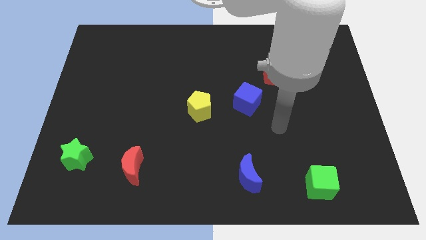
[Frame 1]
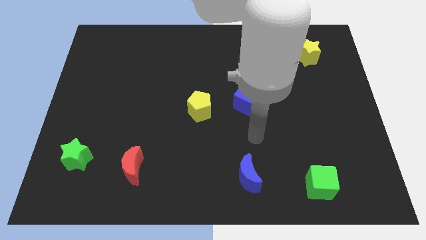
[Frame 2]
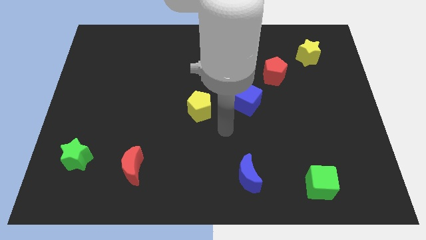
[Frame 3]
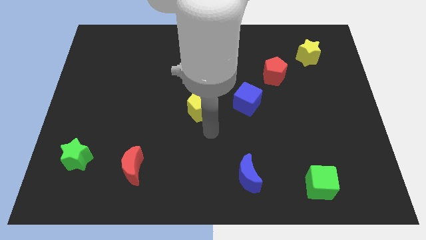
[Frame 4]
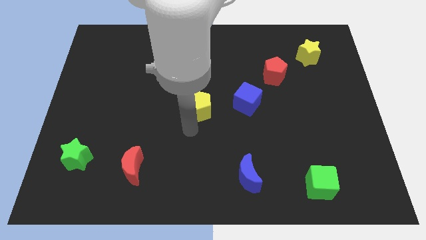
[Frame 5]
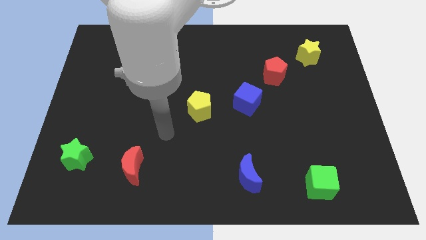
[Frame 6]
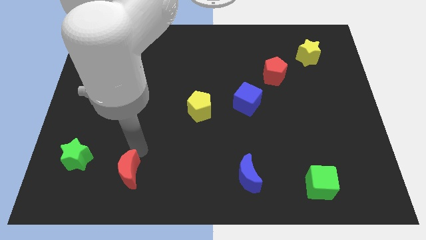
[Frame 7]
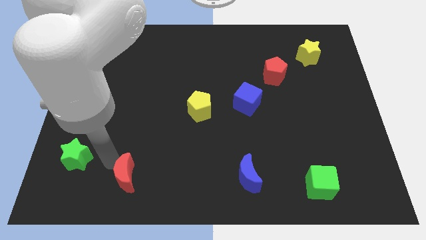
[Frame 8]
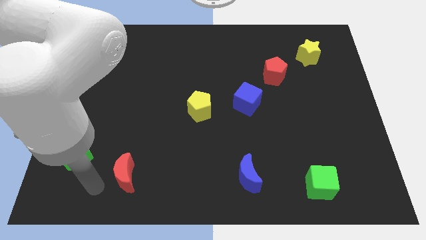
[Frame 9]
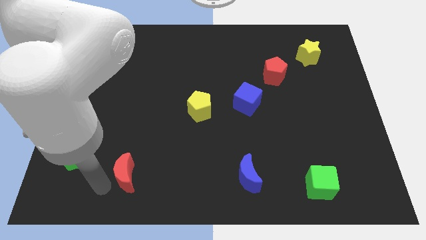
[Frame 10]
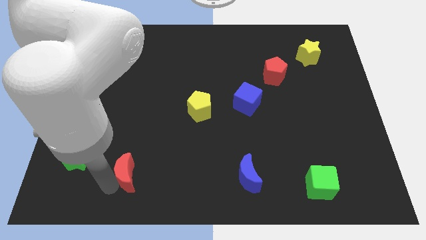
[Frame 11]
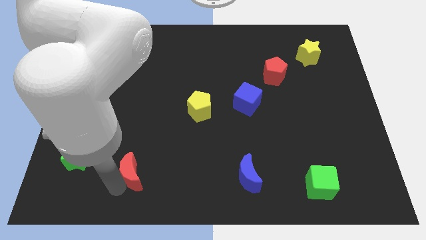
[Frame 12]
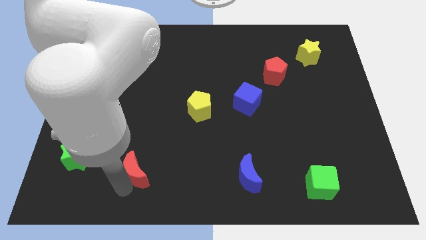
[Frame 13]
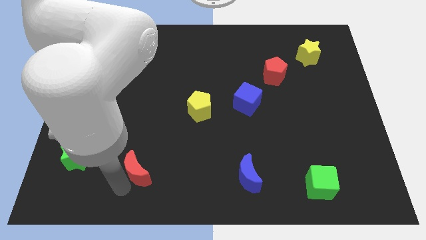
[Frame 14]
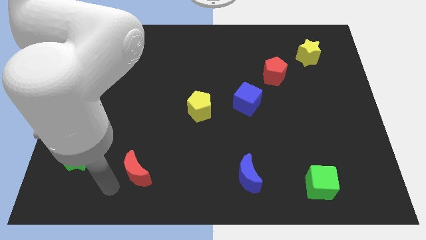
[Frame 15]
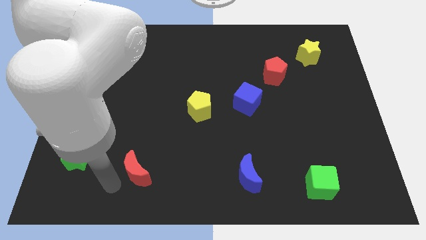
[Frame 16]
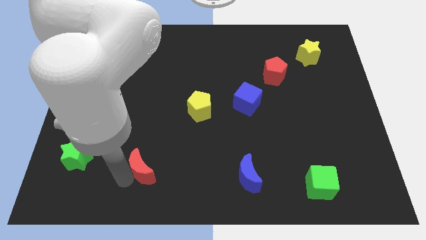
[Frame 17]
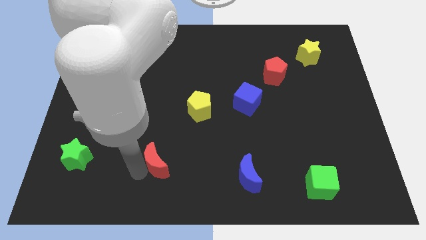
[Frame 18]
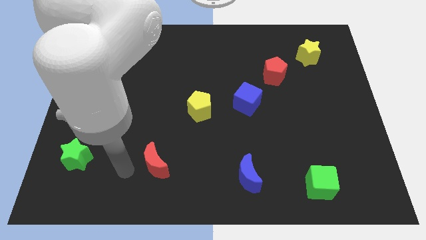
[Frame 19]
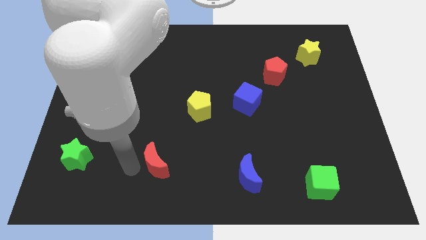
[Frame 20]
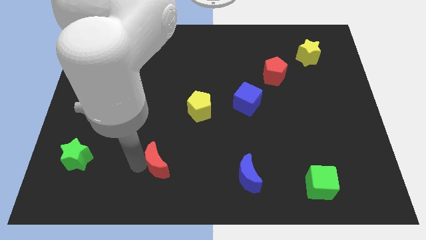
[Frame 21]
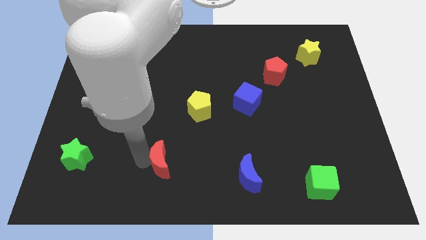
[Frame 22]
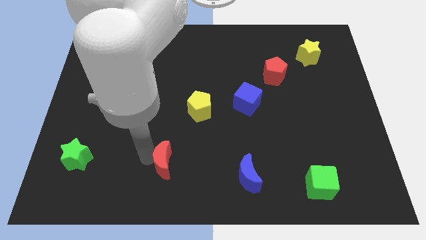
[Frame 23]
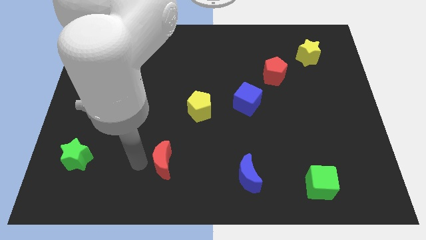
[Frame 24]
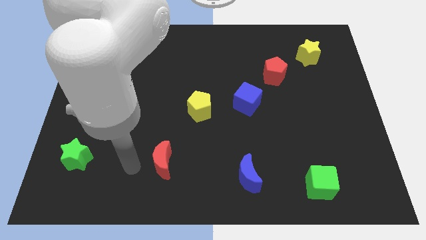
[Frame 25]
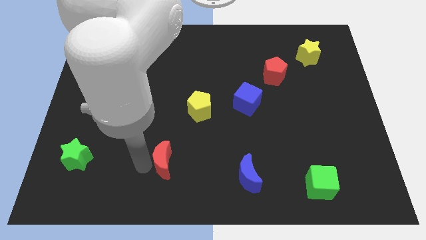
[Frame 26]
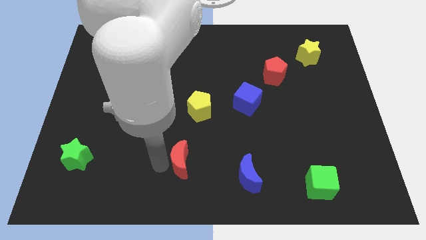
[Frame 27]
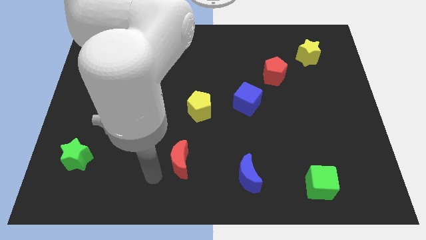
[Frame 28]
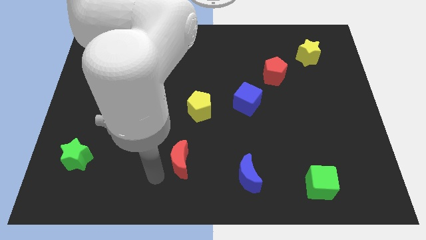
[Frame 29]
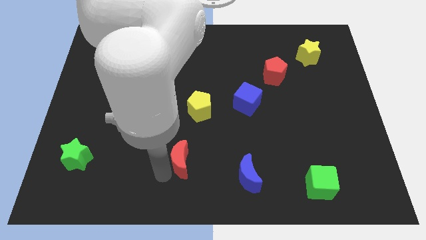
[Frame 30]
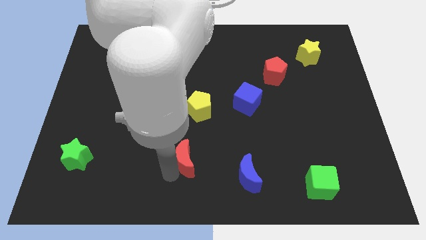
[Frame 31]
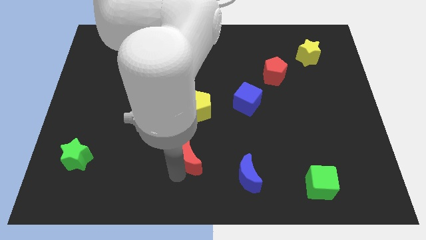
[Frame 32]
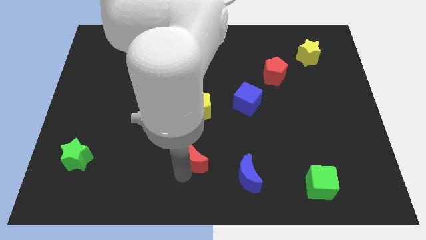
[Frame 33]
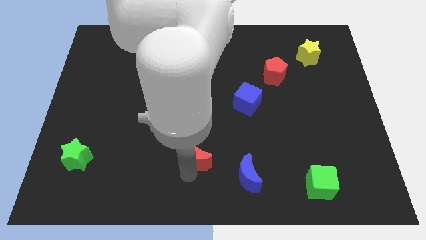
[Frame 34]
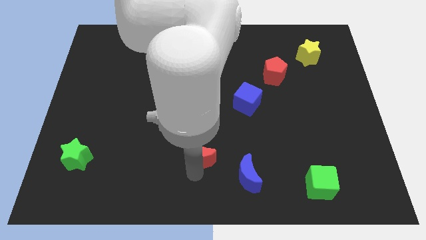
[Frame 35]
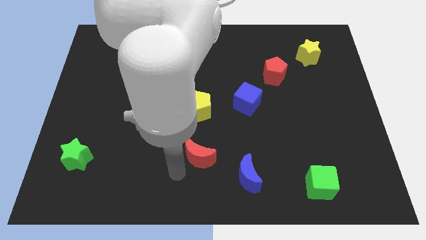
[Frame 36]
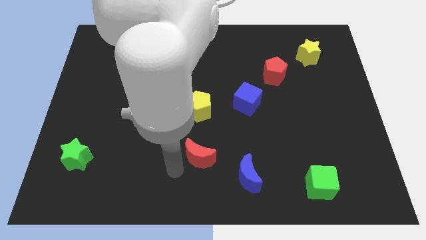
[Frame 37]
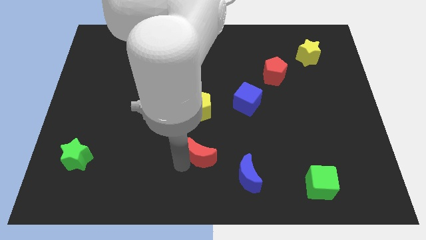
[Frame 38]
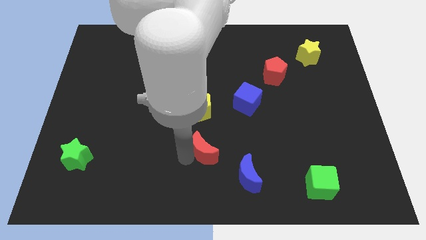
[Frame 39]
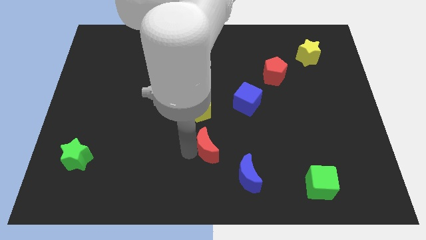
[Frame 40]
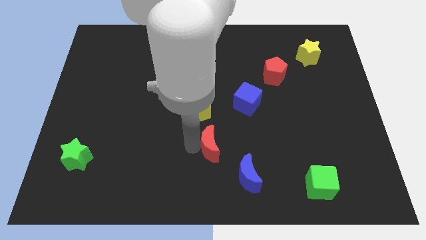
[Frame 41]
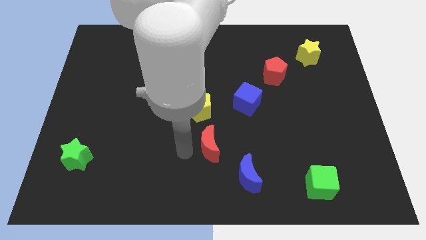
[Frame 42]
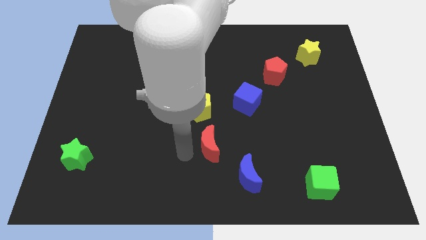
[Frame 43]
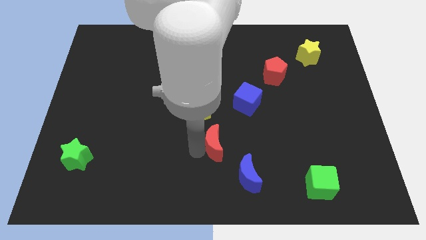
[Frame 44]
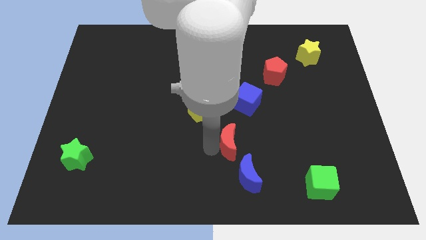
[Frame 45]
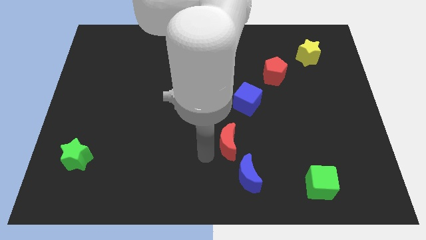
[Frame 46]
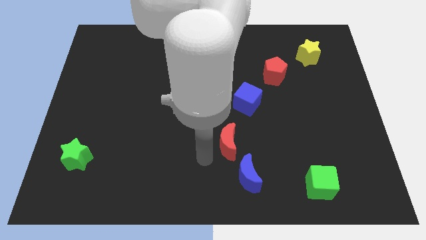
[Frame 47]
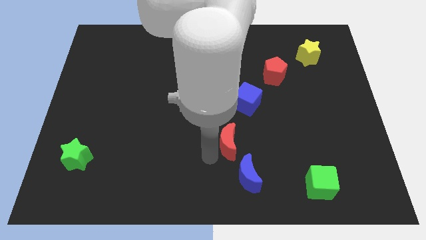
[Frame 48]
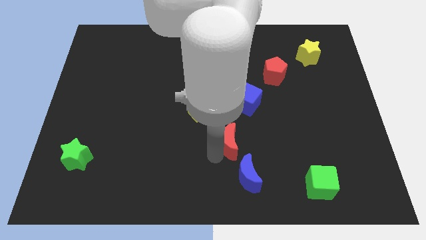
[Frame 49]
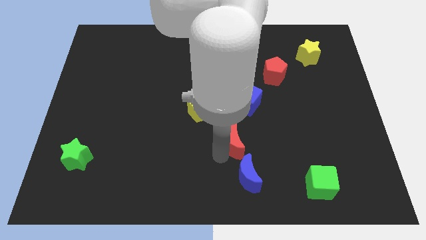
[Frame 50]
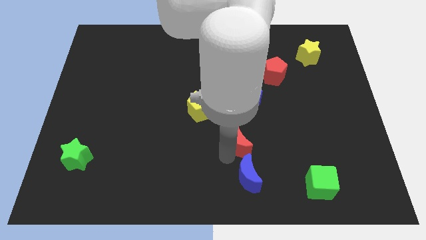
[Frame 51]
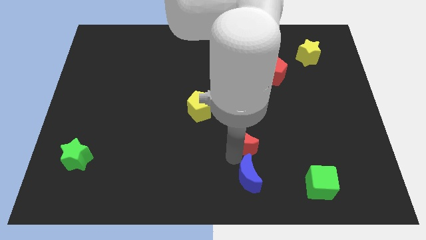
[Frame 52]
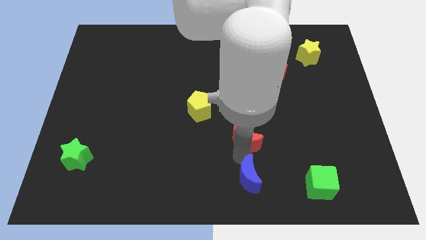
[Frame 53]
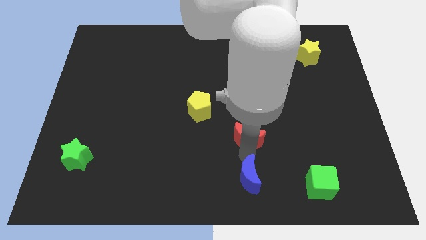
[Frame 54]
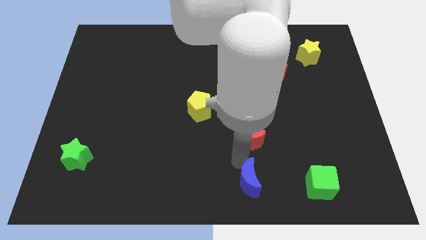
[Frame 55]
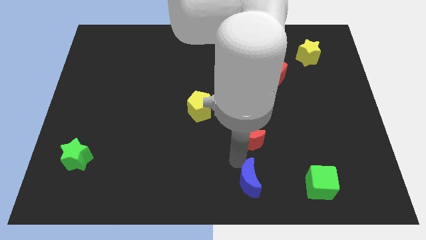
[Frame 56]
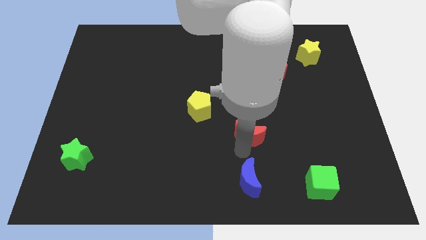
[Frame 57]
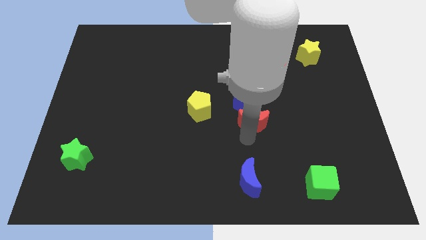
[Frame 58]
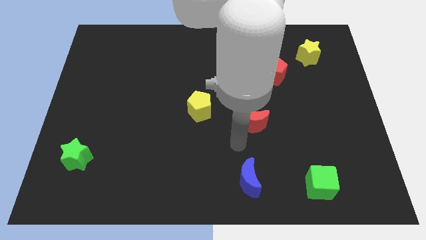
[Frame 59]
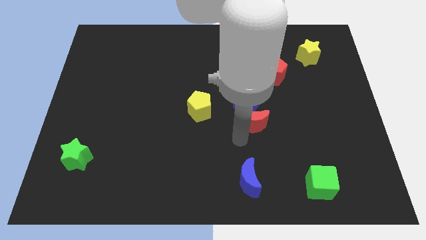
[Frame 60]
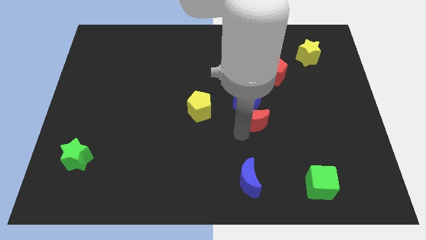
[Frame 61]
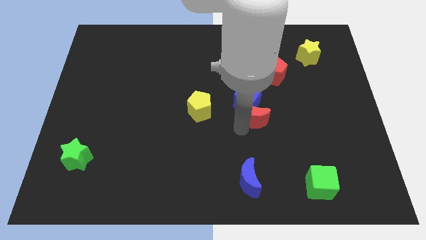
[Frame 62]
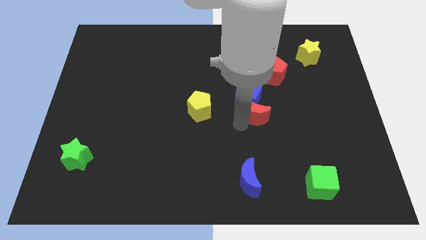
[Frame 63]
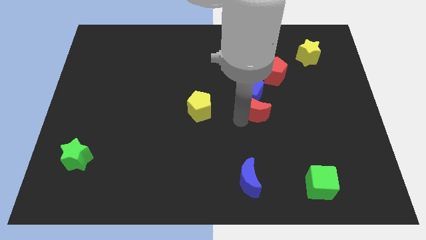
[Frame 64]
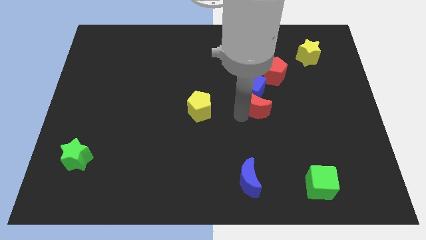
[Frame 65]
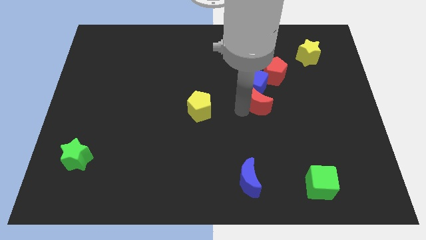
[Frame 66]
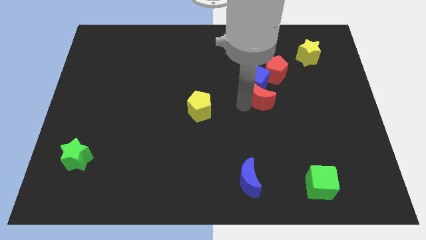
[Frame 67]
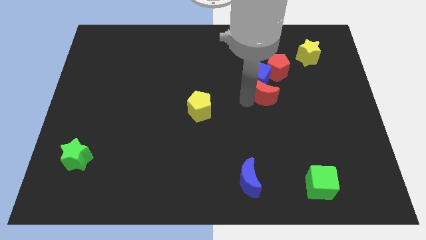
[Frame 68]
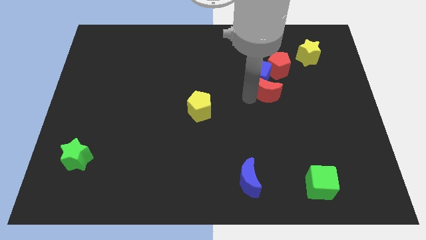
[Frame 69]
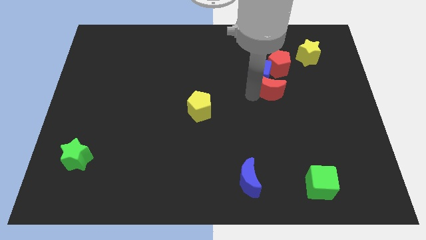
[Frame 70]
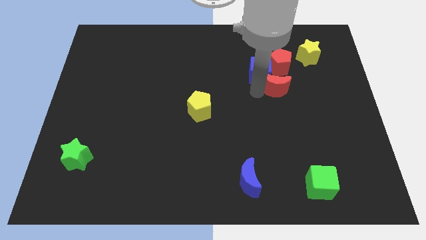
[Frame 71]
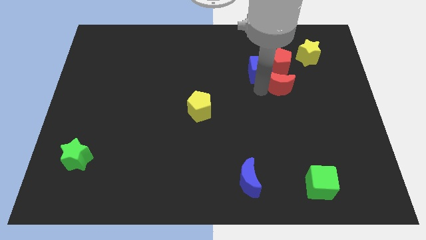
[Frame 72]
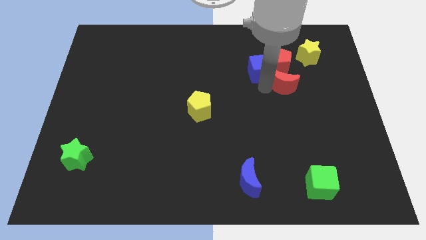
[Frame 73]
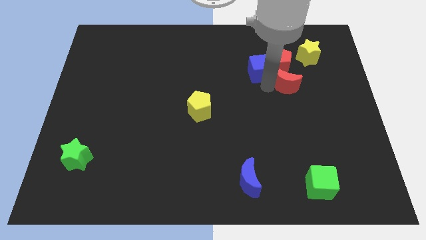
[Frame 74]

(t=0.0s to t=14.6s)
move the red moon to the bottom left side of the yellow star

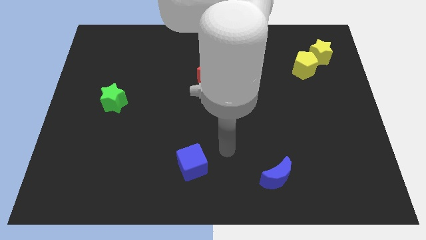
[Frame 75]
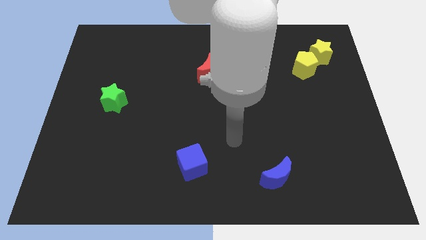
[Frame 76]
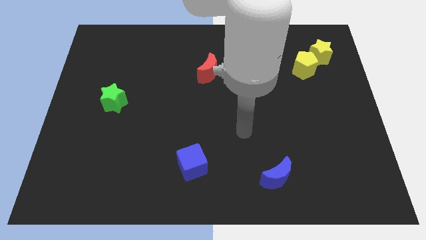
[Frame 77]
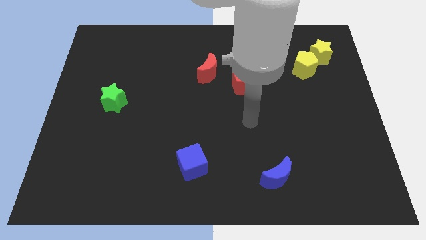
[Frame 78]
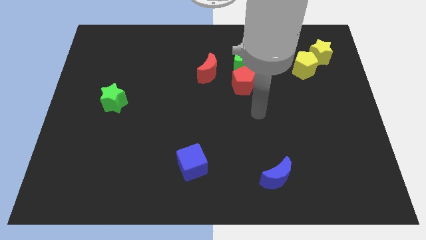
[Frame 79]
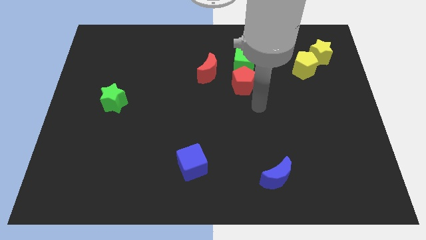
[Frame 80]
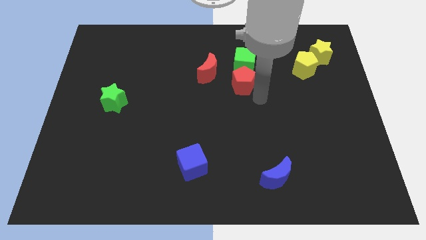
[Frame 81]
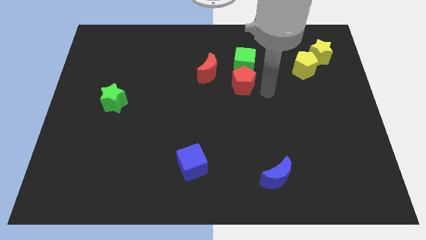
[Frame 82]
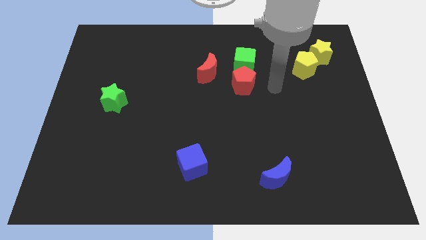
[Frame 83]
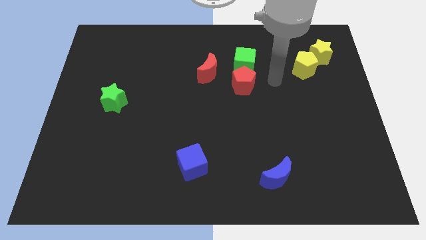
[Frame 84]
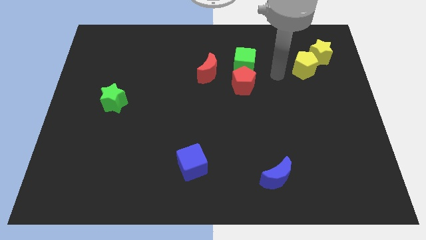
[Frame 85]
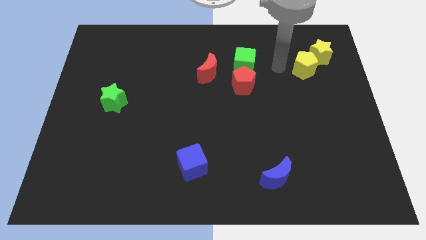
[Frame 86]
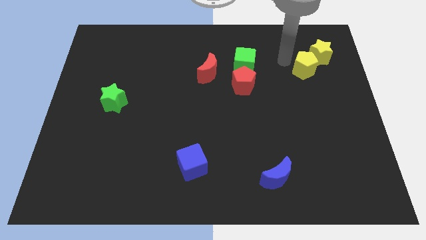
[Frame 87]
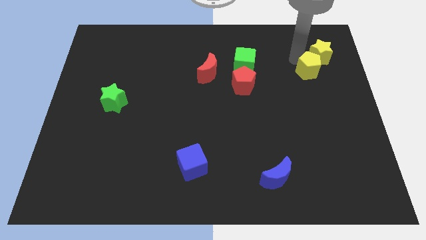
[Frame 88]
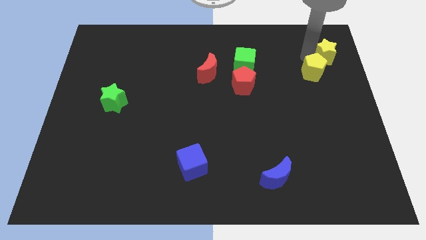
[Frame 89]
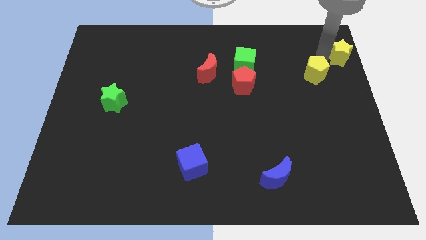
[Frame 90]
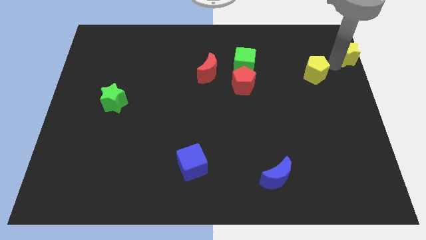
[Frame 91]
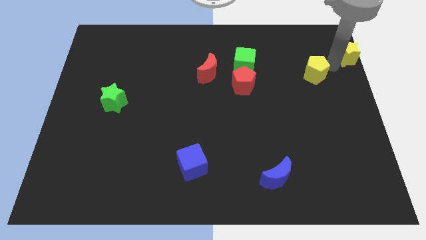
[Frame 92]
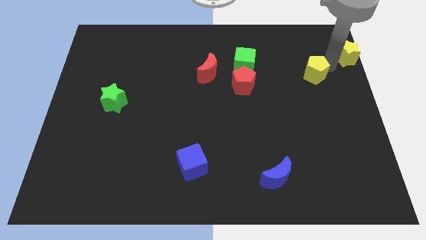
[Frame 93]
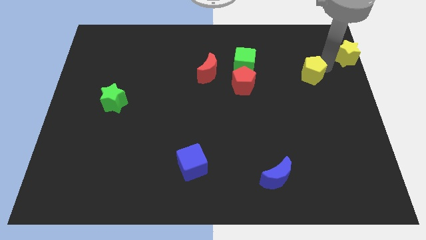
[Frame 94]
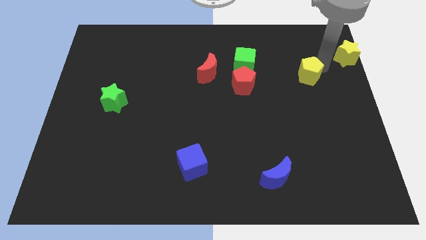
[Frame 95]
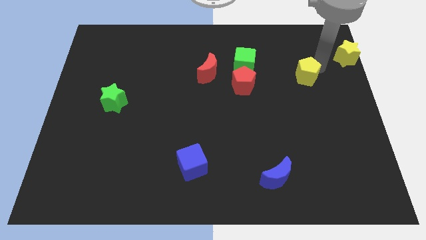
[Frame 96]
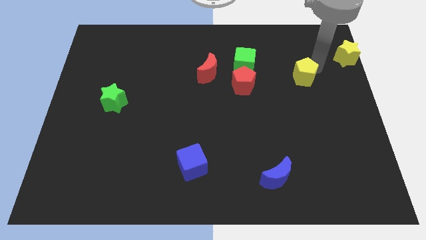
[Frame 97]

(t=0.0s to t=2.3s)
move the yellow pentagon just right of the red pentagon
